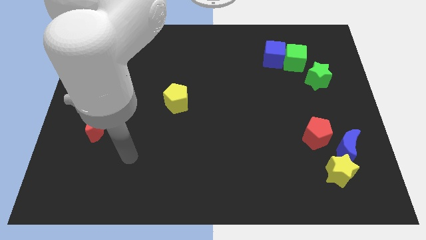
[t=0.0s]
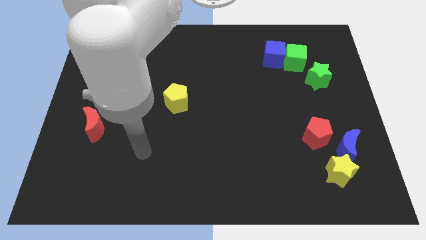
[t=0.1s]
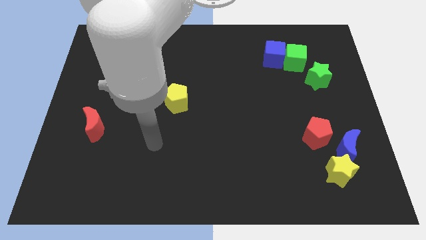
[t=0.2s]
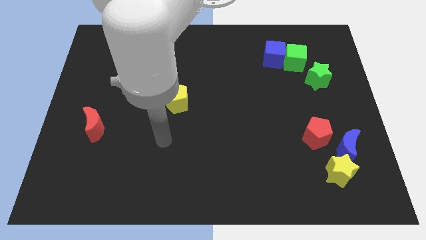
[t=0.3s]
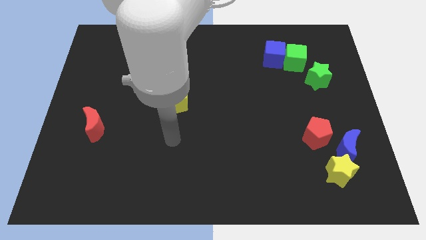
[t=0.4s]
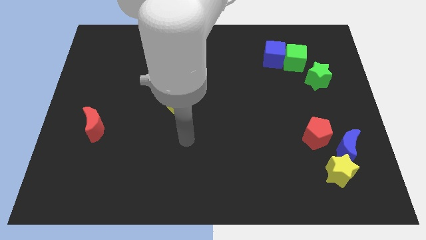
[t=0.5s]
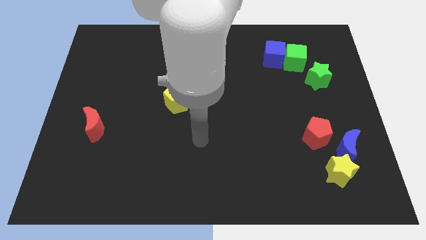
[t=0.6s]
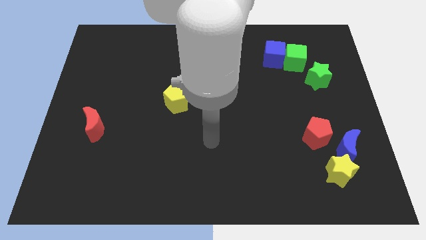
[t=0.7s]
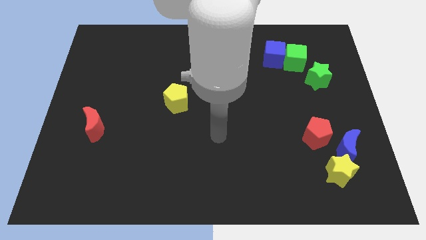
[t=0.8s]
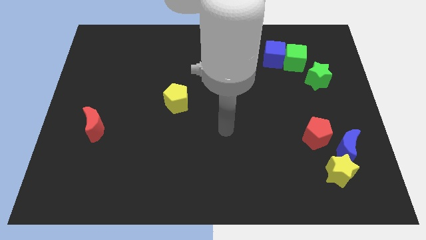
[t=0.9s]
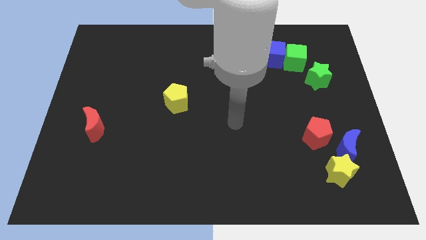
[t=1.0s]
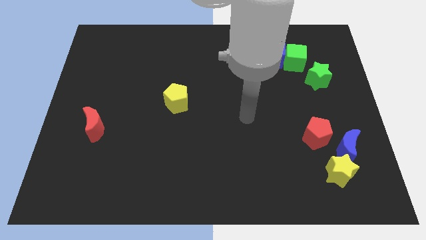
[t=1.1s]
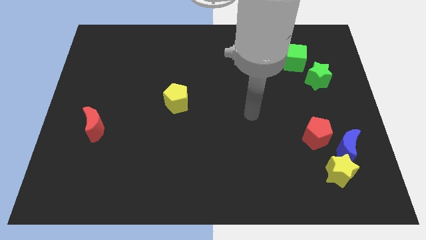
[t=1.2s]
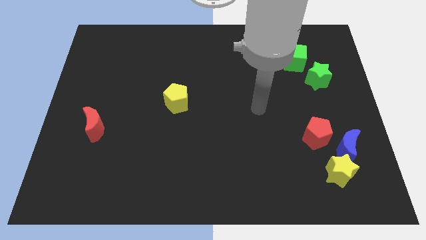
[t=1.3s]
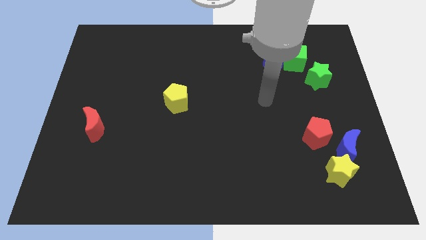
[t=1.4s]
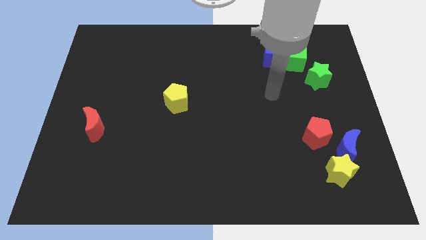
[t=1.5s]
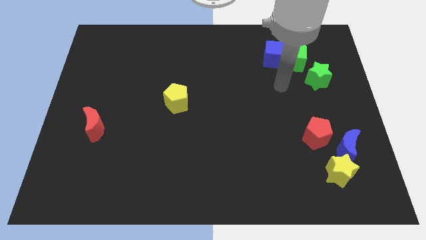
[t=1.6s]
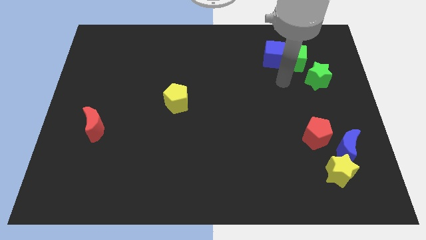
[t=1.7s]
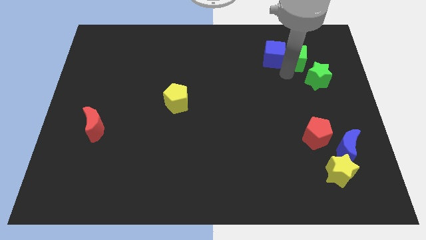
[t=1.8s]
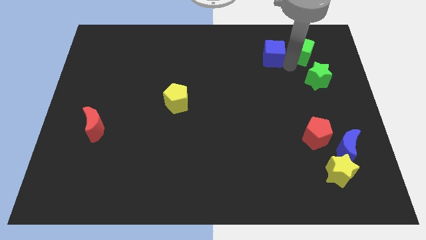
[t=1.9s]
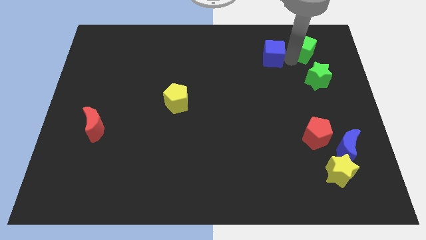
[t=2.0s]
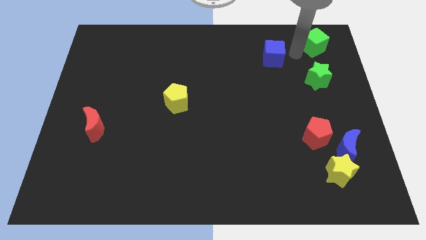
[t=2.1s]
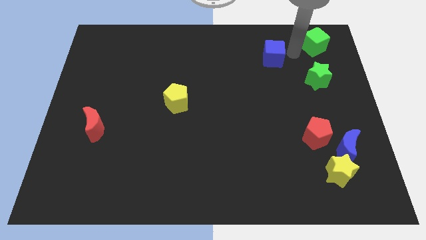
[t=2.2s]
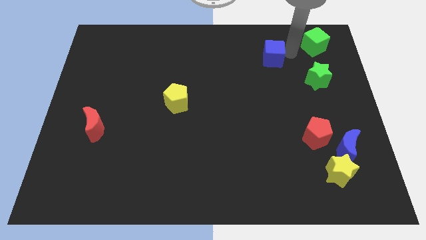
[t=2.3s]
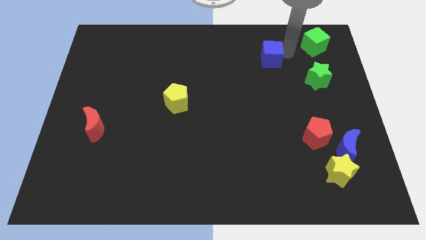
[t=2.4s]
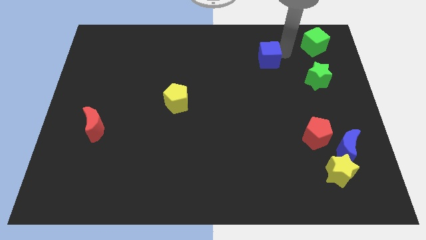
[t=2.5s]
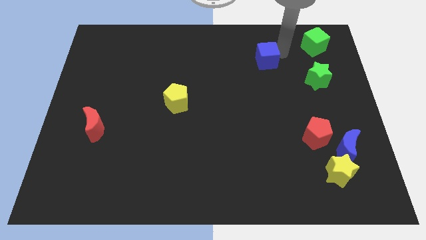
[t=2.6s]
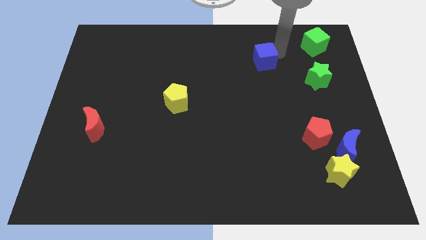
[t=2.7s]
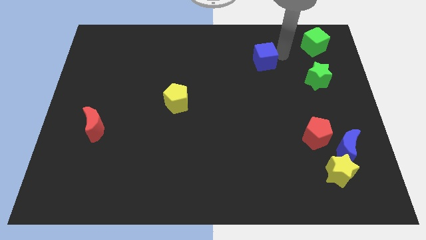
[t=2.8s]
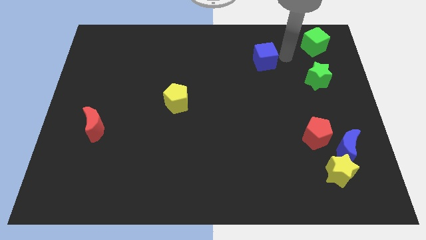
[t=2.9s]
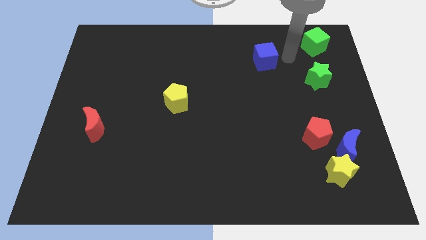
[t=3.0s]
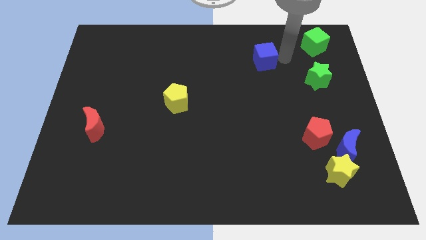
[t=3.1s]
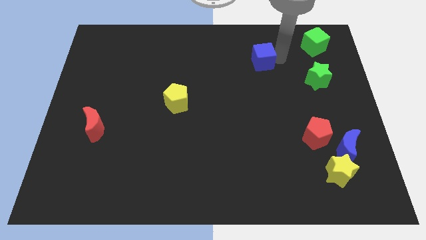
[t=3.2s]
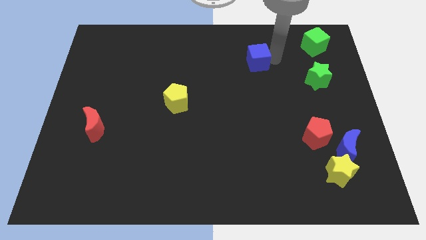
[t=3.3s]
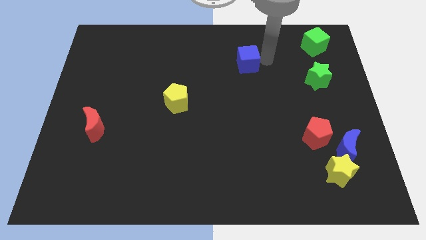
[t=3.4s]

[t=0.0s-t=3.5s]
slightly move the blue cube left

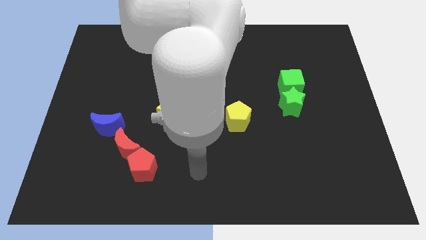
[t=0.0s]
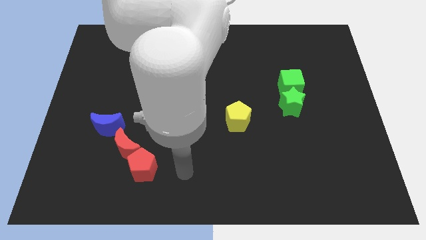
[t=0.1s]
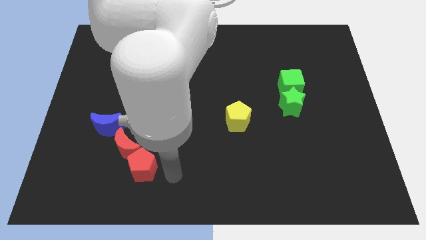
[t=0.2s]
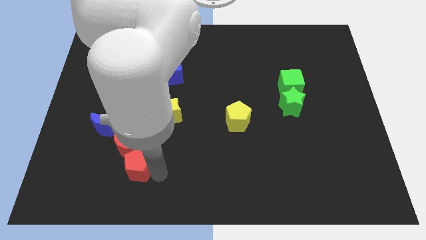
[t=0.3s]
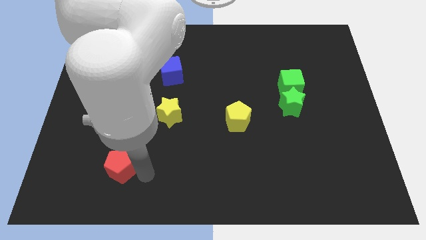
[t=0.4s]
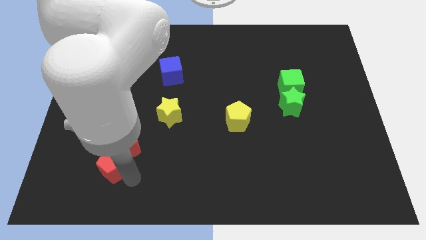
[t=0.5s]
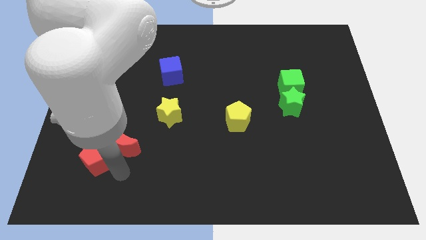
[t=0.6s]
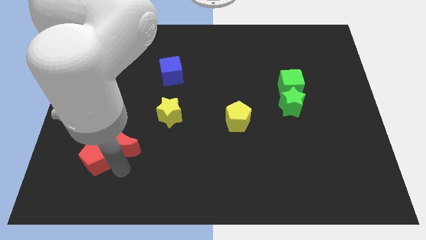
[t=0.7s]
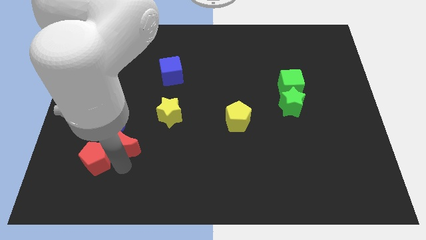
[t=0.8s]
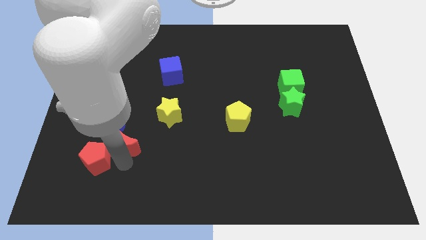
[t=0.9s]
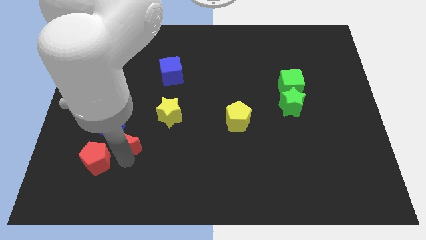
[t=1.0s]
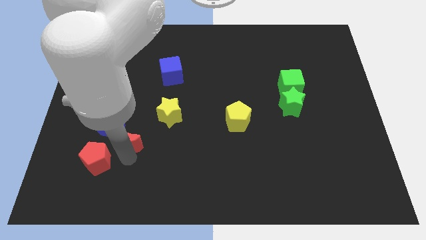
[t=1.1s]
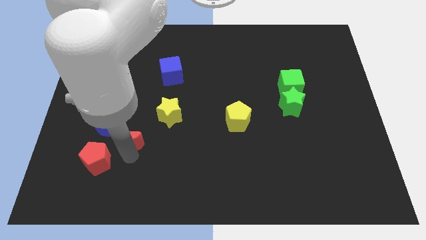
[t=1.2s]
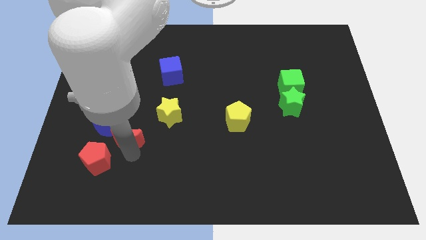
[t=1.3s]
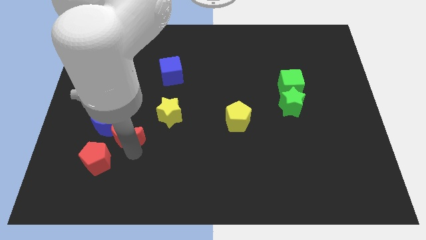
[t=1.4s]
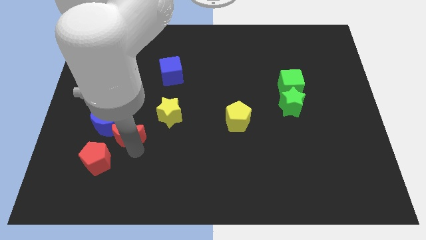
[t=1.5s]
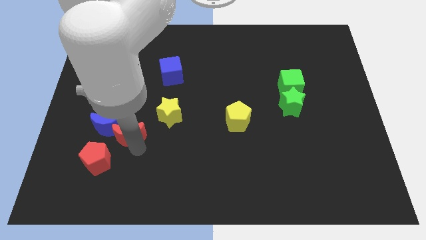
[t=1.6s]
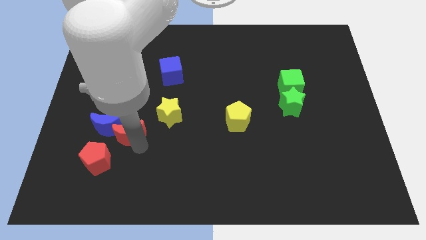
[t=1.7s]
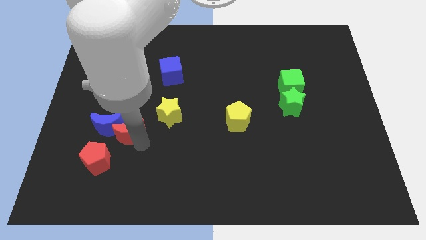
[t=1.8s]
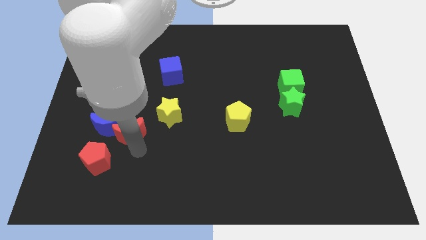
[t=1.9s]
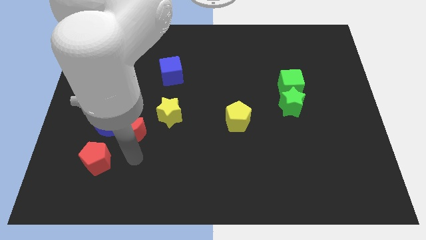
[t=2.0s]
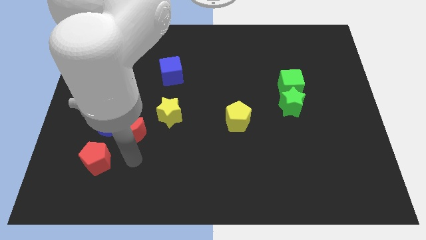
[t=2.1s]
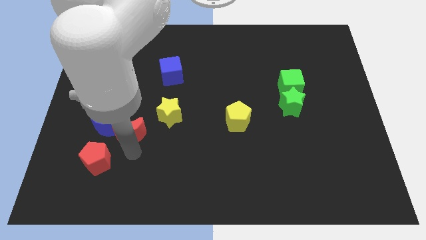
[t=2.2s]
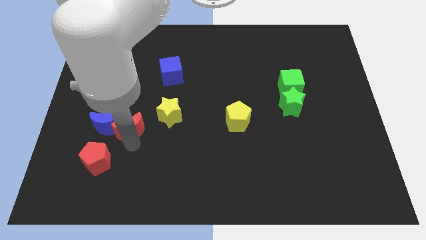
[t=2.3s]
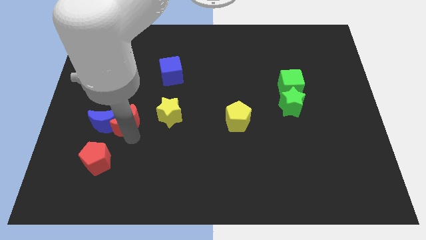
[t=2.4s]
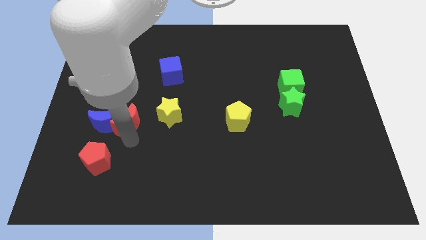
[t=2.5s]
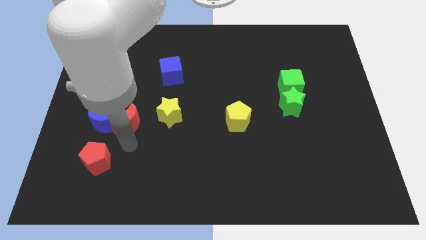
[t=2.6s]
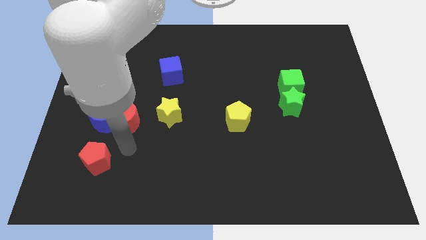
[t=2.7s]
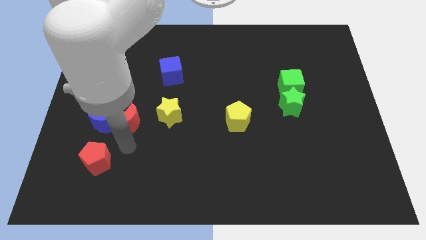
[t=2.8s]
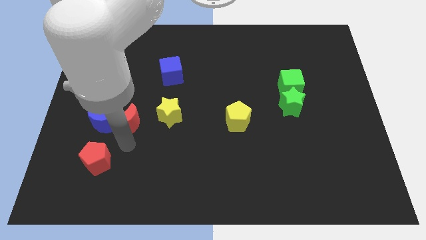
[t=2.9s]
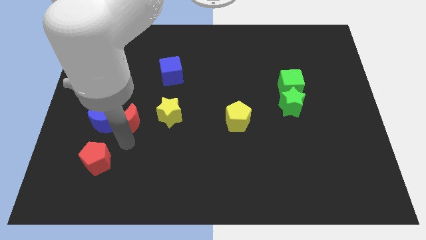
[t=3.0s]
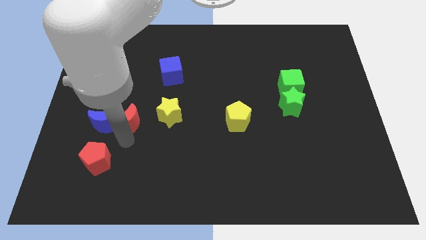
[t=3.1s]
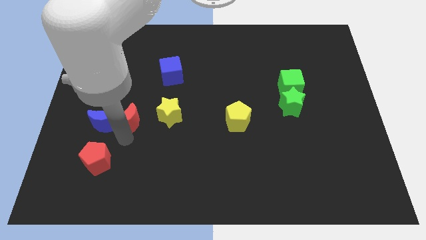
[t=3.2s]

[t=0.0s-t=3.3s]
push the red moon up a little bit

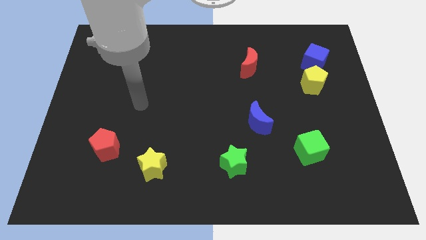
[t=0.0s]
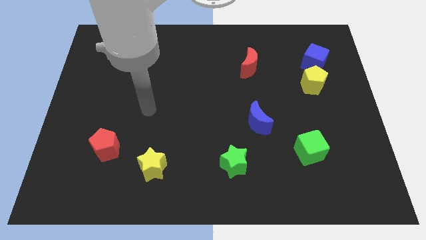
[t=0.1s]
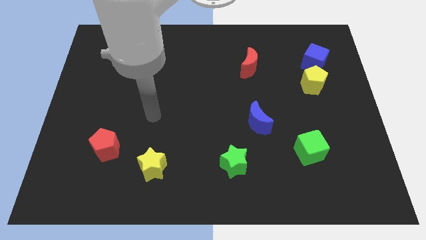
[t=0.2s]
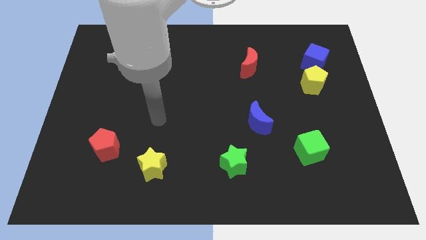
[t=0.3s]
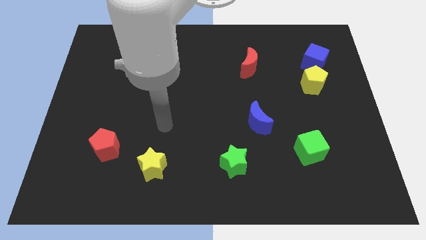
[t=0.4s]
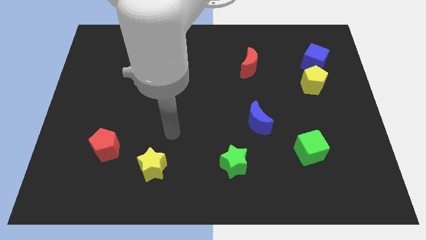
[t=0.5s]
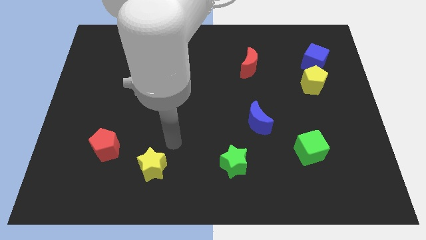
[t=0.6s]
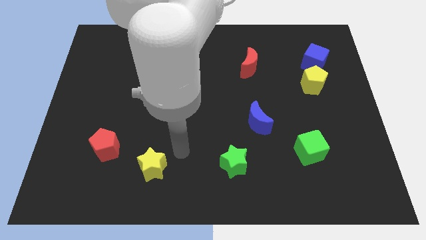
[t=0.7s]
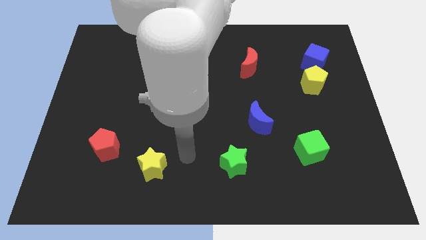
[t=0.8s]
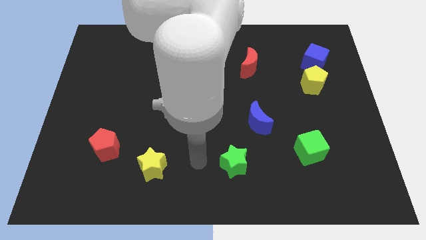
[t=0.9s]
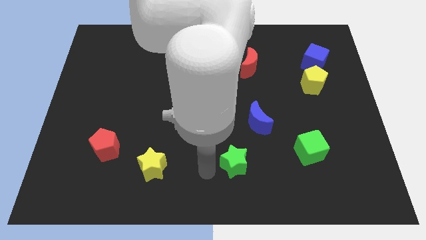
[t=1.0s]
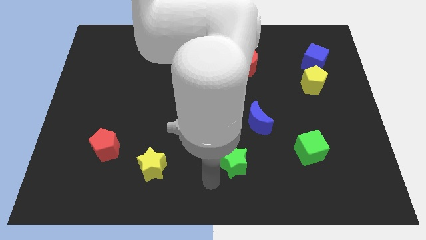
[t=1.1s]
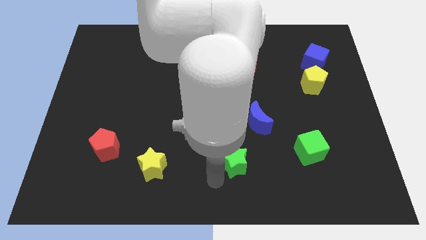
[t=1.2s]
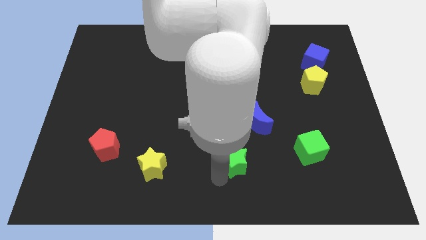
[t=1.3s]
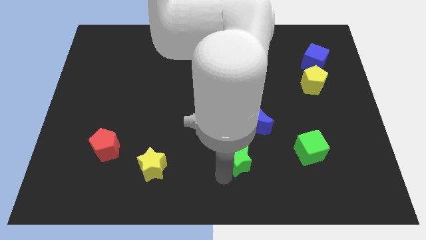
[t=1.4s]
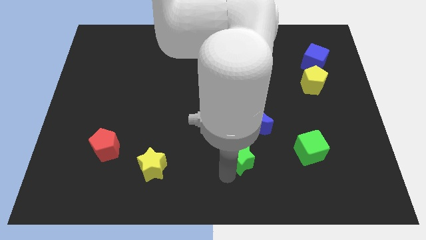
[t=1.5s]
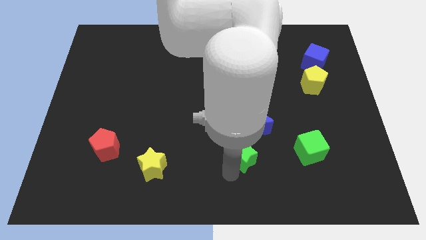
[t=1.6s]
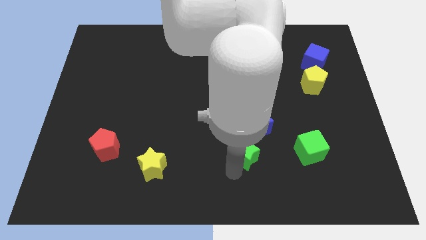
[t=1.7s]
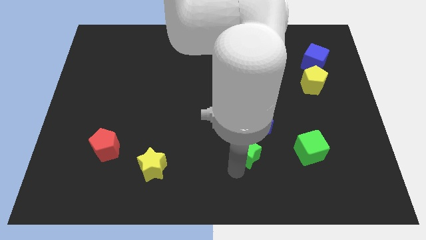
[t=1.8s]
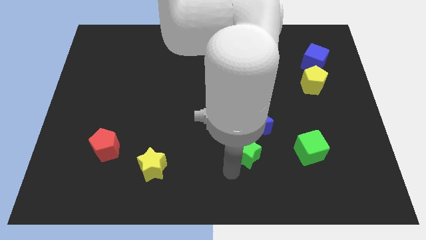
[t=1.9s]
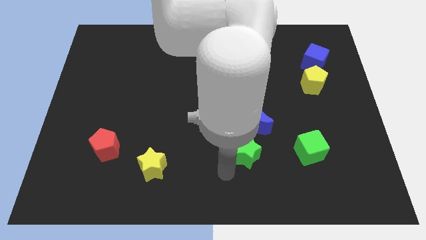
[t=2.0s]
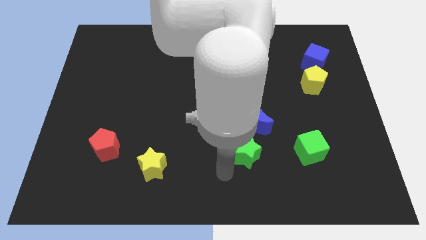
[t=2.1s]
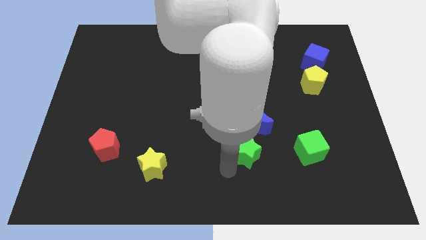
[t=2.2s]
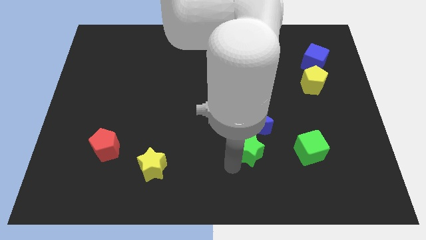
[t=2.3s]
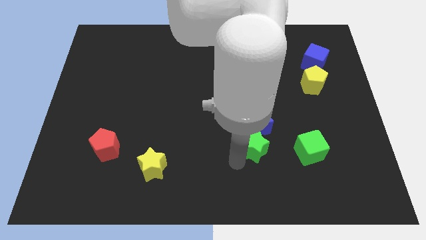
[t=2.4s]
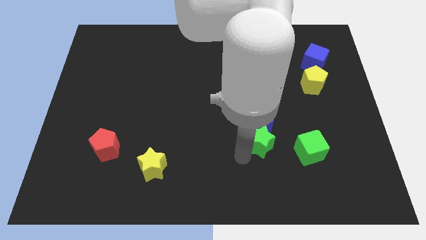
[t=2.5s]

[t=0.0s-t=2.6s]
push the green star a bit diagonally upwards and right
